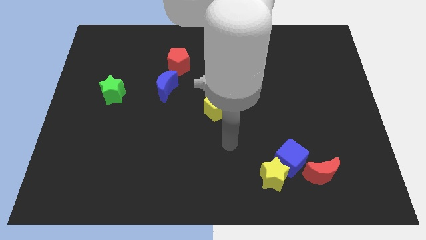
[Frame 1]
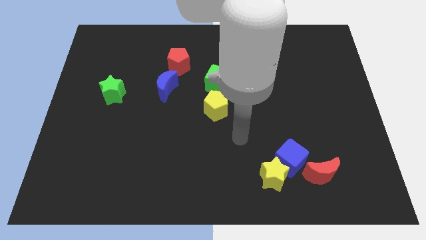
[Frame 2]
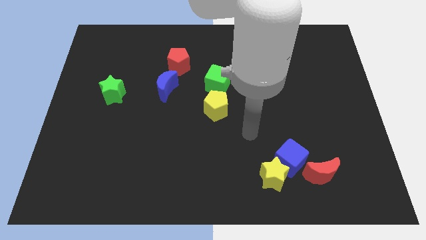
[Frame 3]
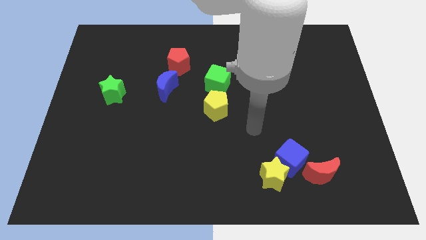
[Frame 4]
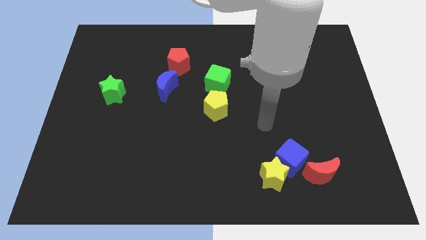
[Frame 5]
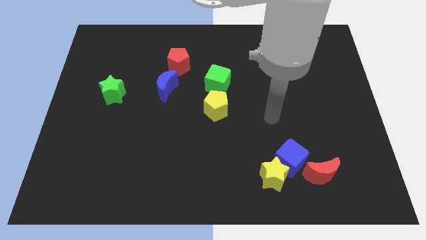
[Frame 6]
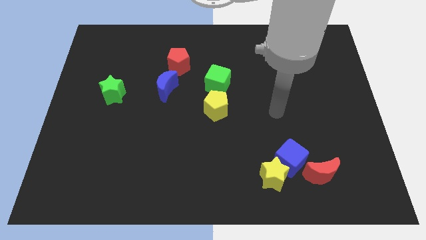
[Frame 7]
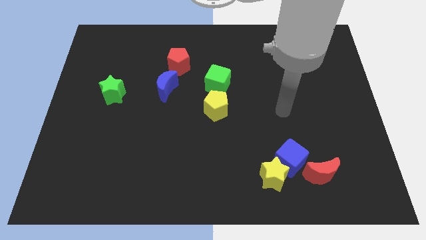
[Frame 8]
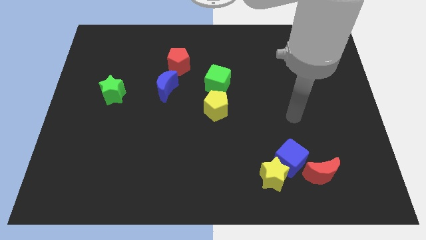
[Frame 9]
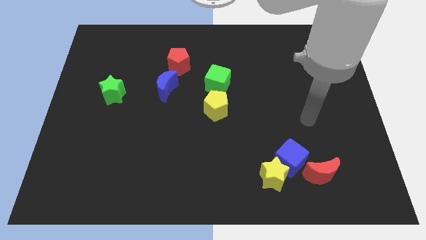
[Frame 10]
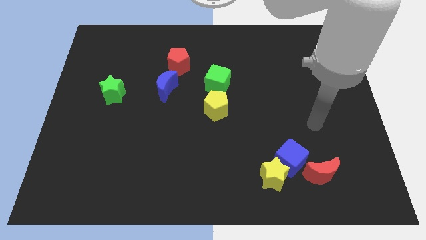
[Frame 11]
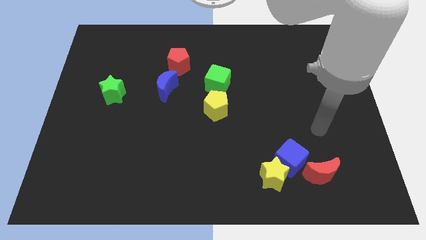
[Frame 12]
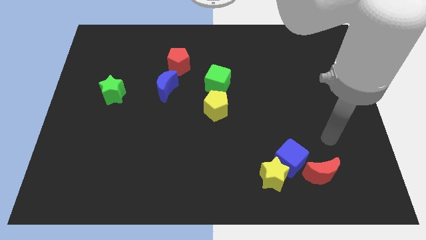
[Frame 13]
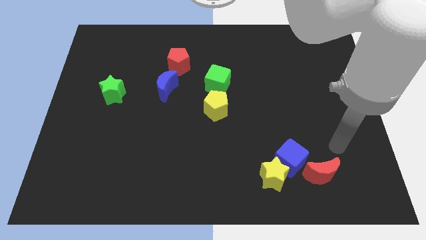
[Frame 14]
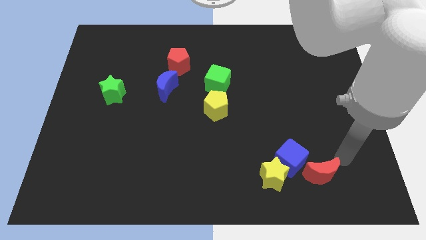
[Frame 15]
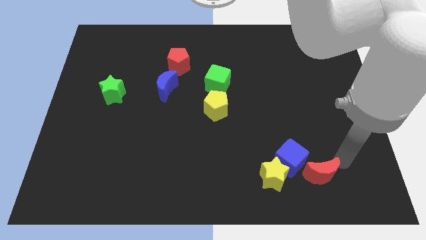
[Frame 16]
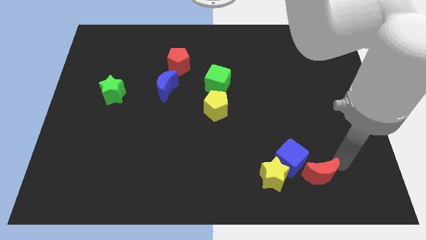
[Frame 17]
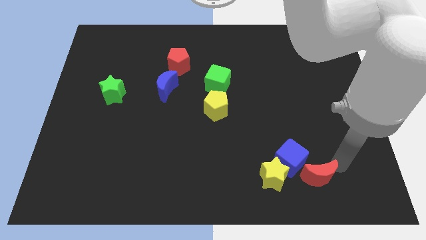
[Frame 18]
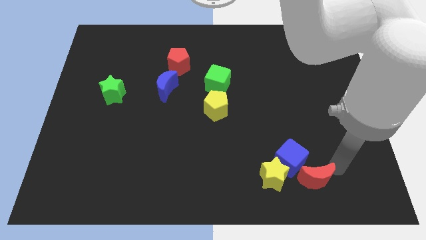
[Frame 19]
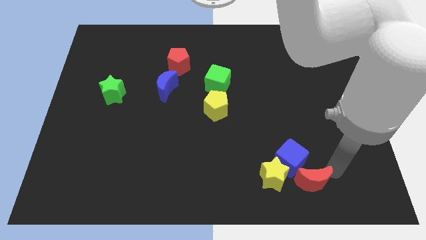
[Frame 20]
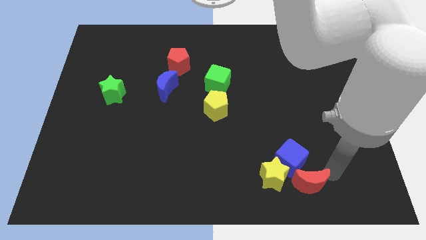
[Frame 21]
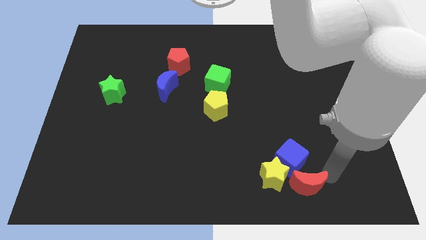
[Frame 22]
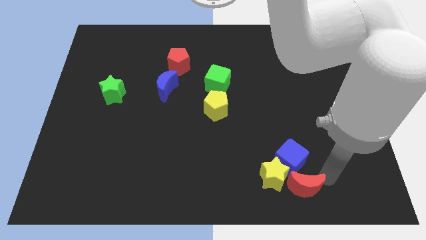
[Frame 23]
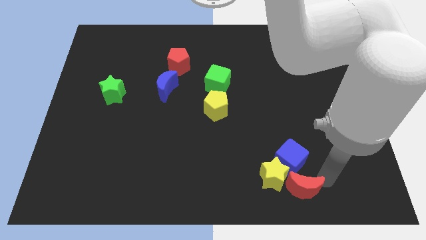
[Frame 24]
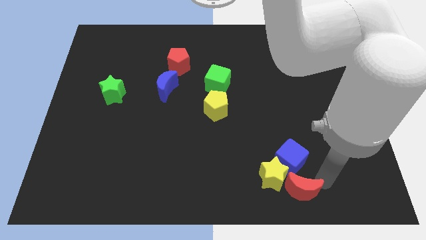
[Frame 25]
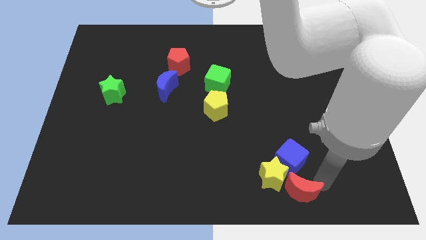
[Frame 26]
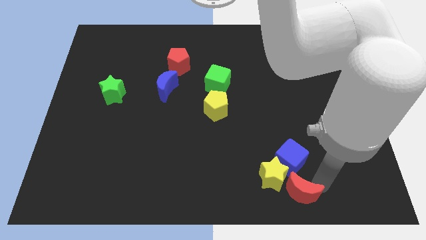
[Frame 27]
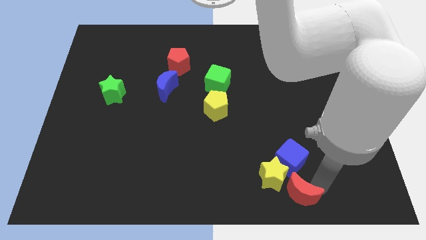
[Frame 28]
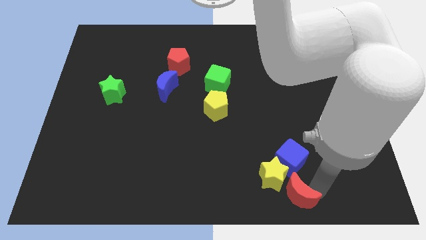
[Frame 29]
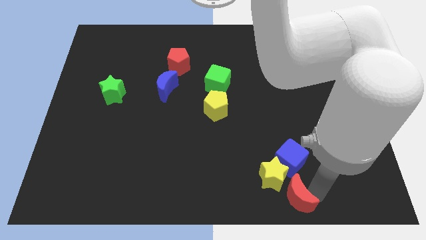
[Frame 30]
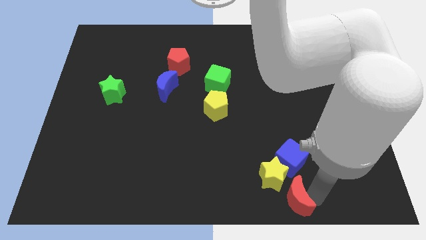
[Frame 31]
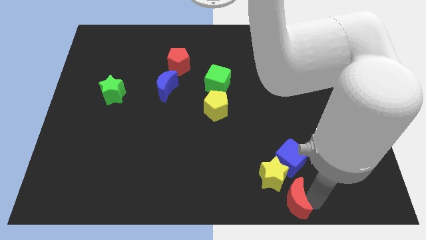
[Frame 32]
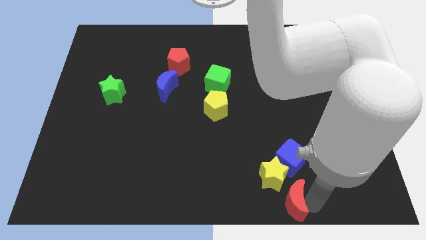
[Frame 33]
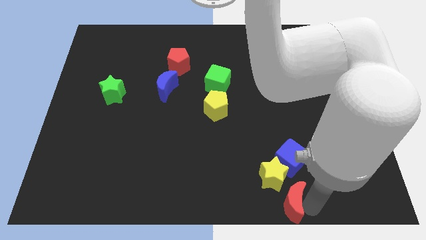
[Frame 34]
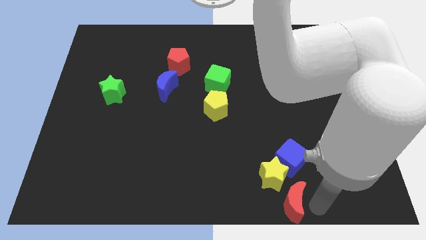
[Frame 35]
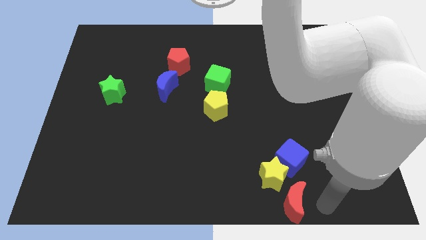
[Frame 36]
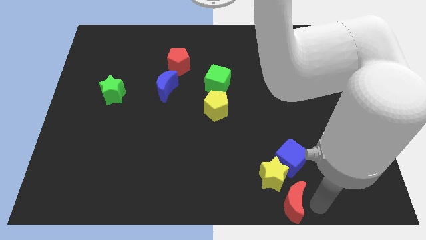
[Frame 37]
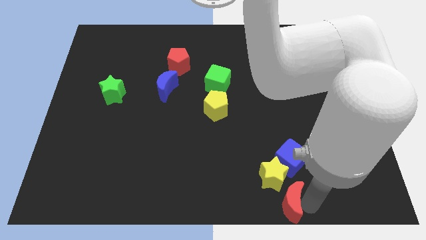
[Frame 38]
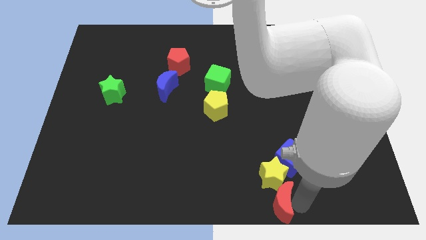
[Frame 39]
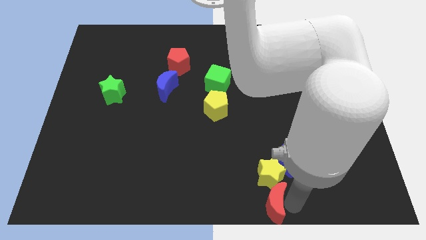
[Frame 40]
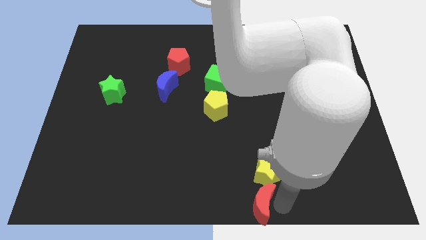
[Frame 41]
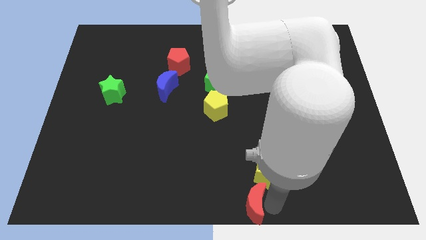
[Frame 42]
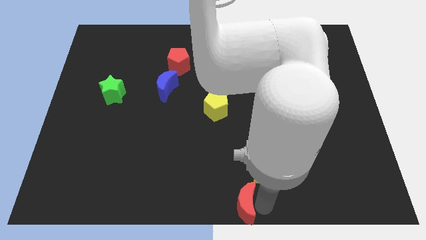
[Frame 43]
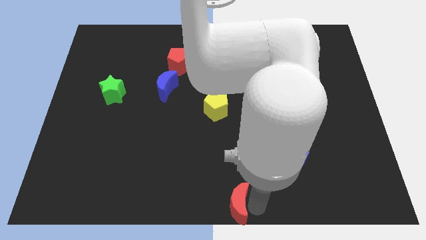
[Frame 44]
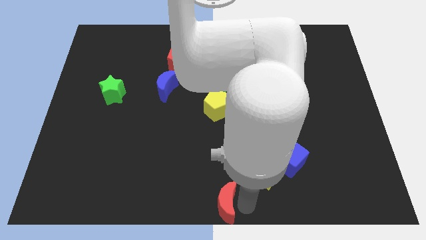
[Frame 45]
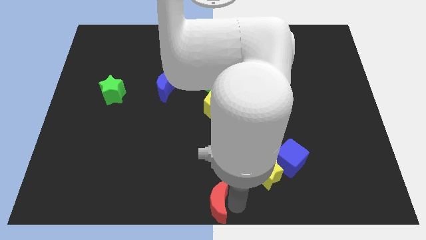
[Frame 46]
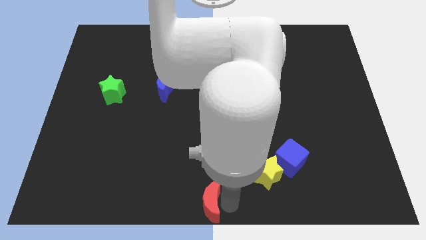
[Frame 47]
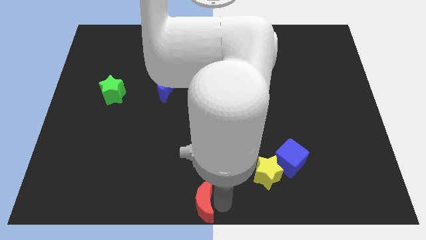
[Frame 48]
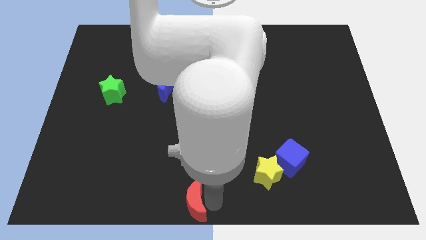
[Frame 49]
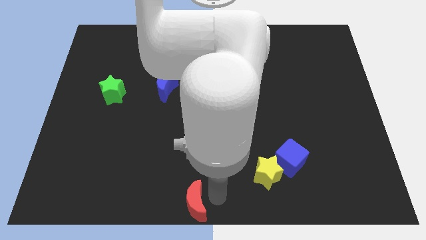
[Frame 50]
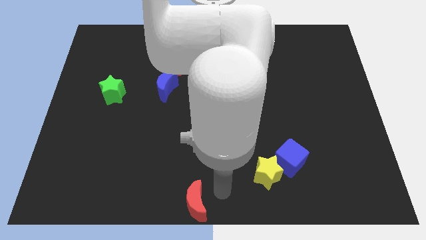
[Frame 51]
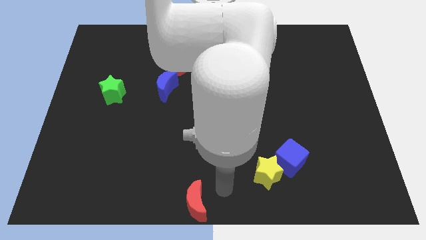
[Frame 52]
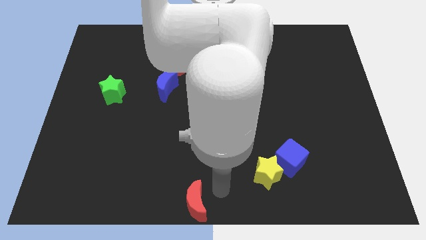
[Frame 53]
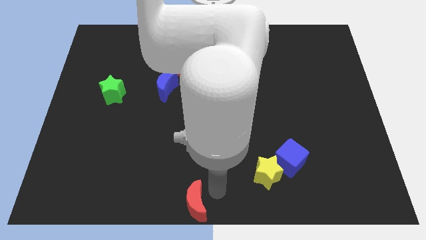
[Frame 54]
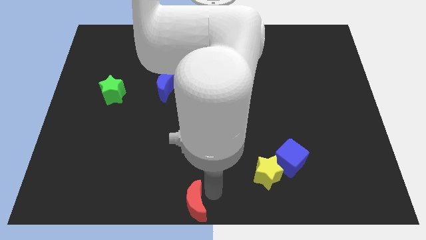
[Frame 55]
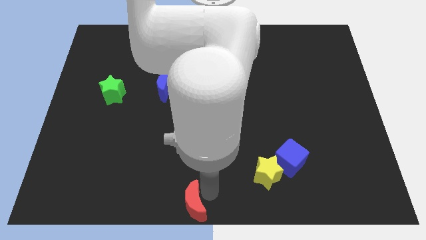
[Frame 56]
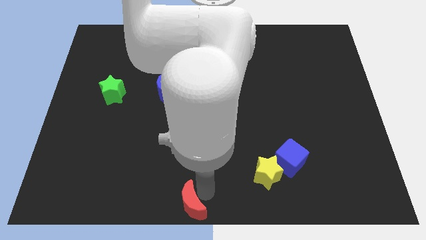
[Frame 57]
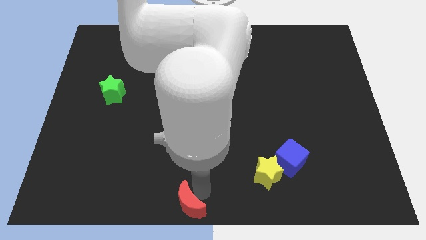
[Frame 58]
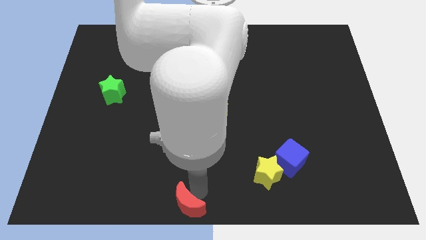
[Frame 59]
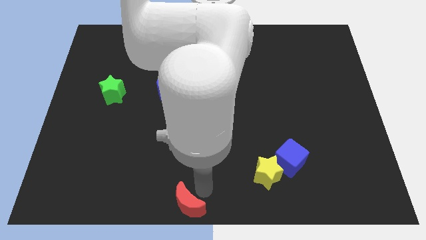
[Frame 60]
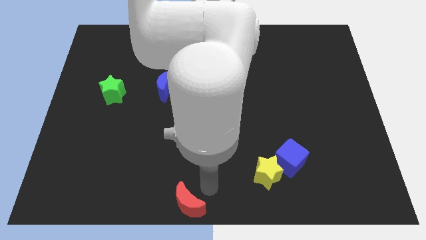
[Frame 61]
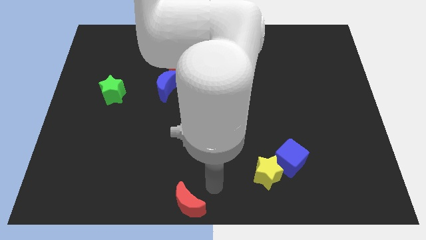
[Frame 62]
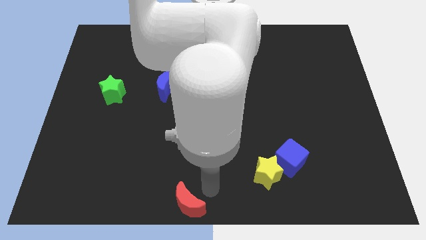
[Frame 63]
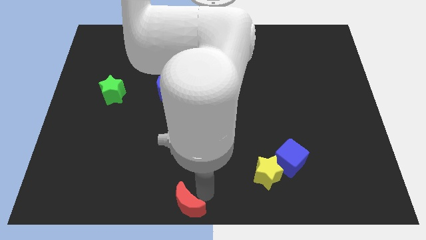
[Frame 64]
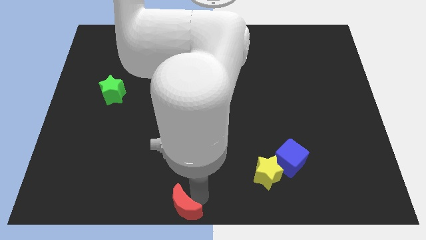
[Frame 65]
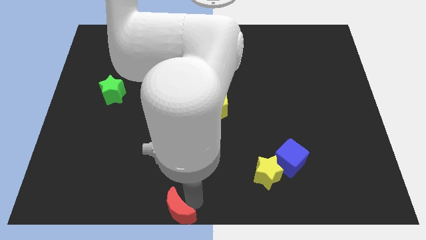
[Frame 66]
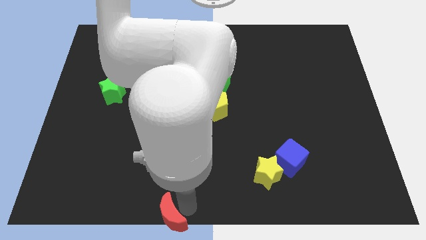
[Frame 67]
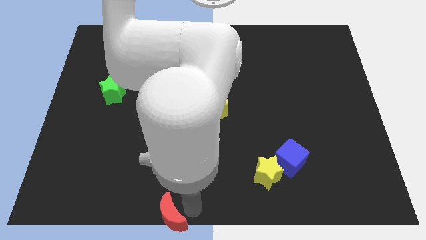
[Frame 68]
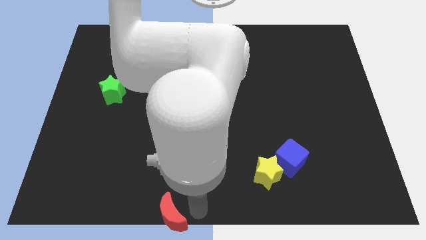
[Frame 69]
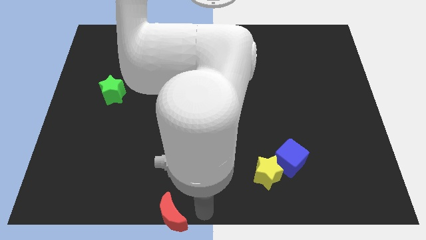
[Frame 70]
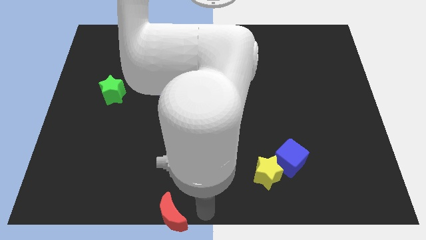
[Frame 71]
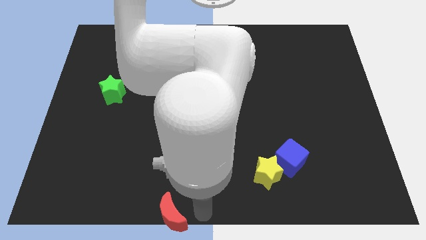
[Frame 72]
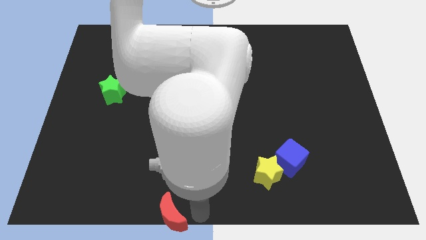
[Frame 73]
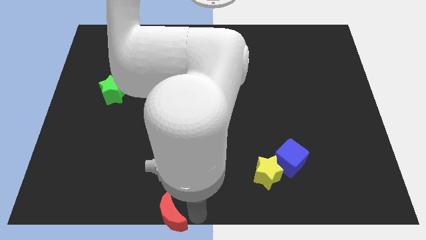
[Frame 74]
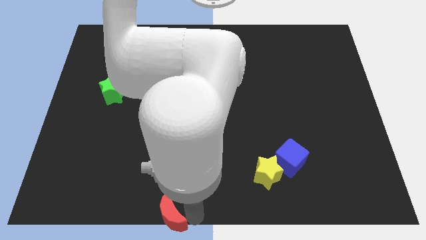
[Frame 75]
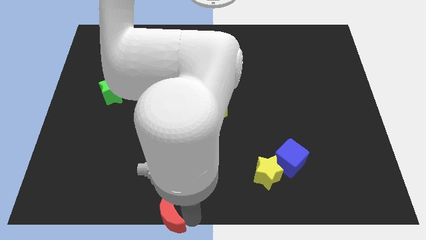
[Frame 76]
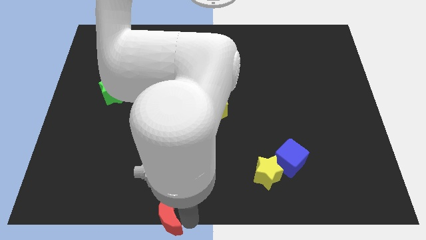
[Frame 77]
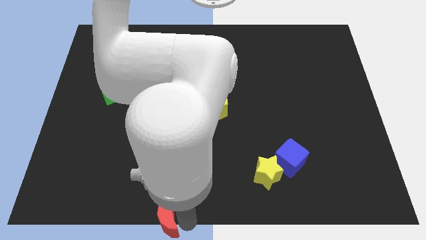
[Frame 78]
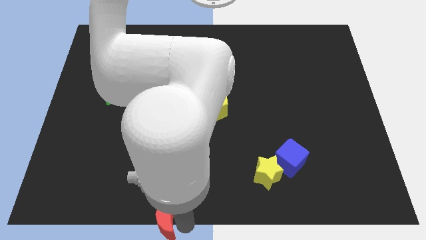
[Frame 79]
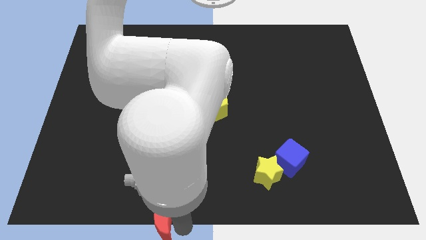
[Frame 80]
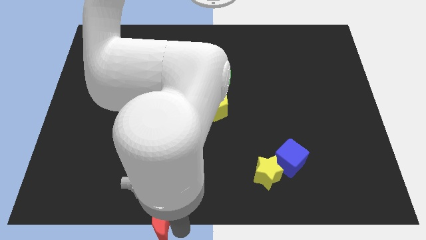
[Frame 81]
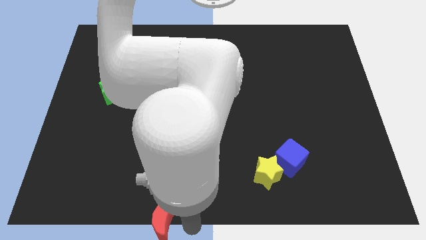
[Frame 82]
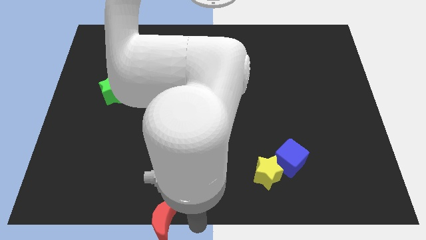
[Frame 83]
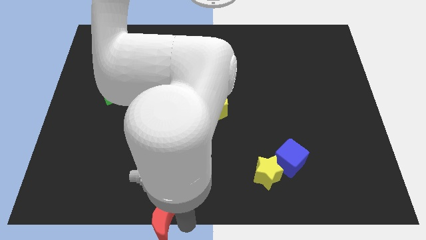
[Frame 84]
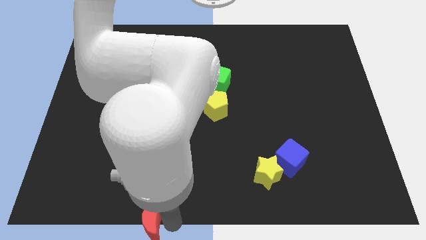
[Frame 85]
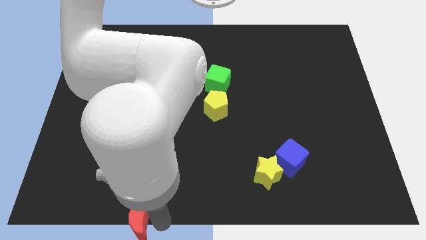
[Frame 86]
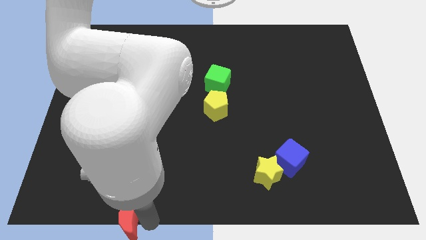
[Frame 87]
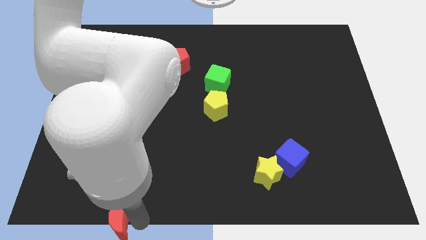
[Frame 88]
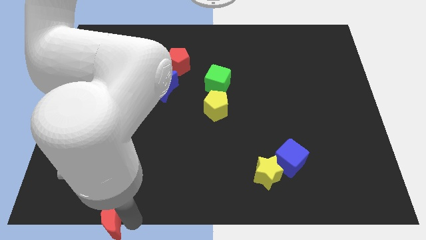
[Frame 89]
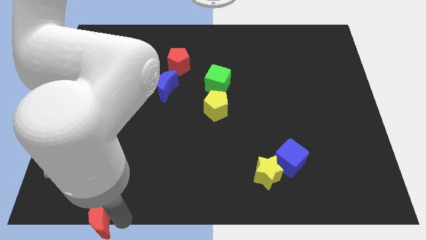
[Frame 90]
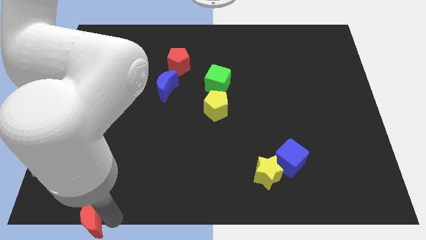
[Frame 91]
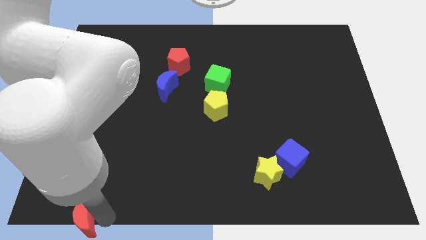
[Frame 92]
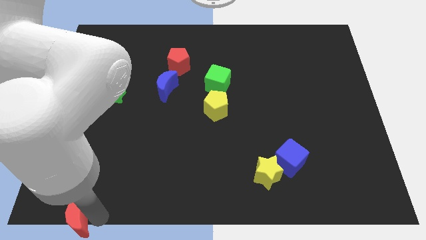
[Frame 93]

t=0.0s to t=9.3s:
move the red moon to the bottom left
